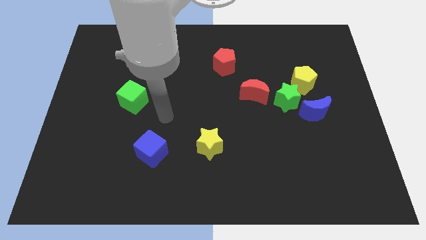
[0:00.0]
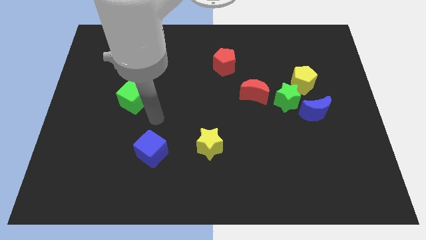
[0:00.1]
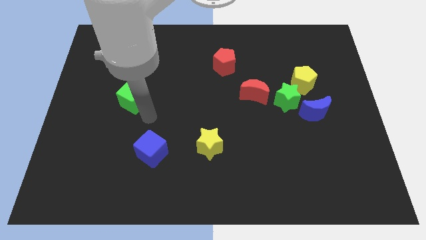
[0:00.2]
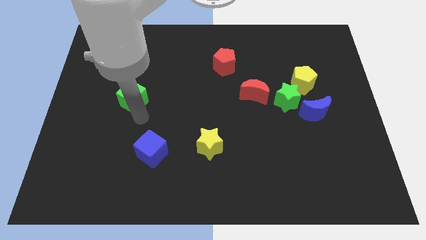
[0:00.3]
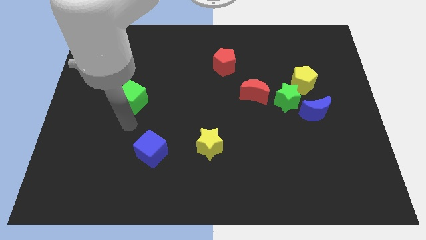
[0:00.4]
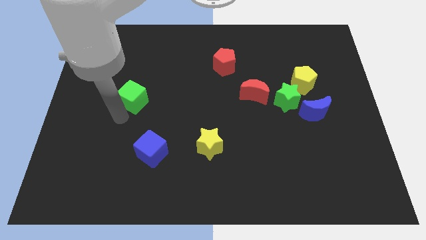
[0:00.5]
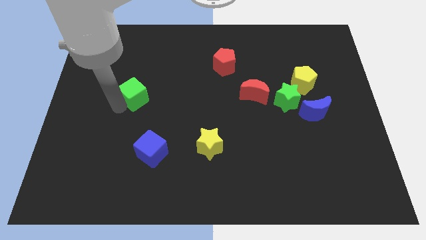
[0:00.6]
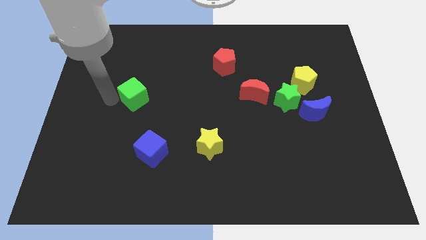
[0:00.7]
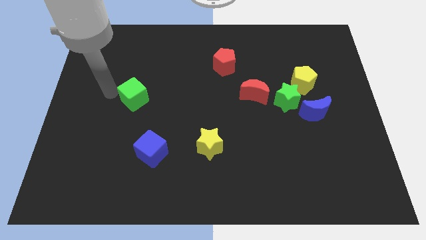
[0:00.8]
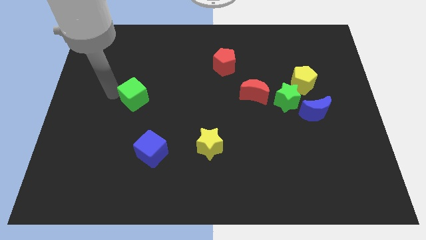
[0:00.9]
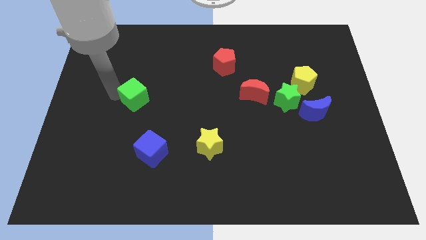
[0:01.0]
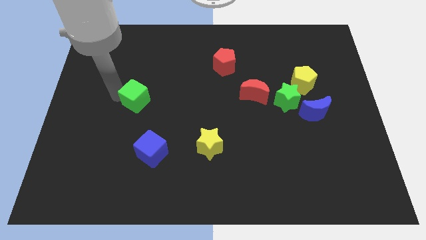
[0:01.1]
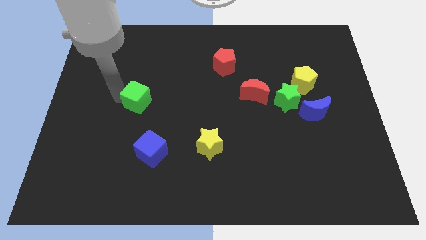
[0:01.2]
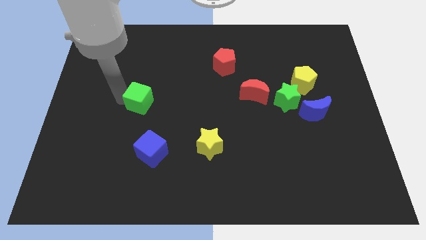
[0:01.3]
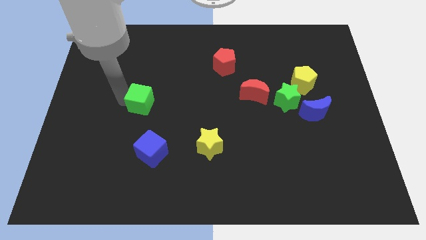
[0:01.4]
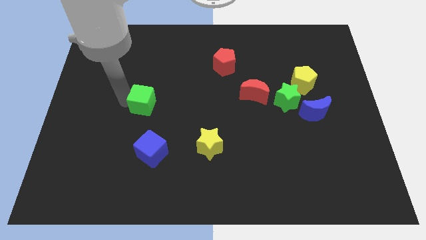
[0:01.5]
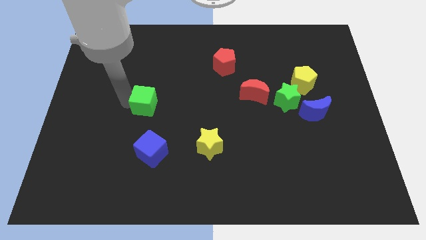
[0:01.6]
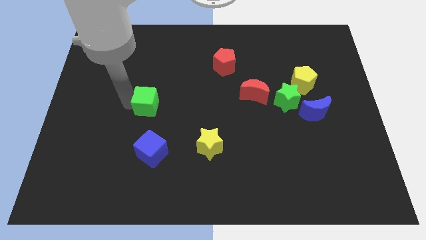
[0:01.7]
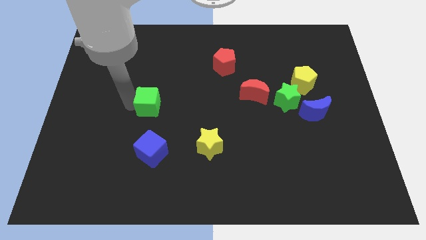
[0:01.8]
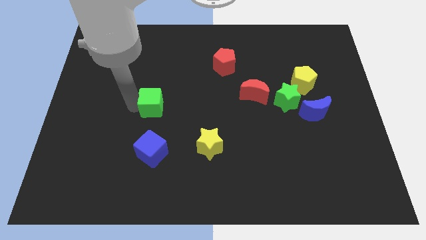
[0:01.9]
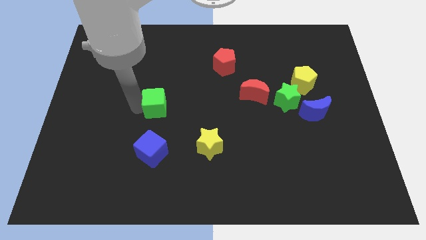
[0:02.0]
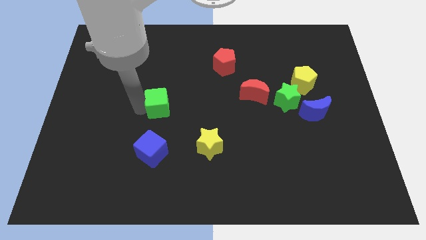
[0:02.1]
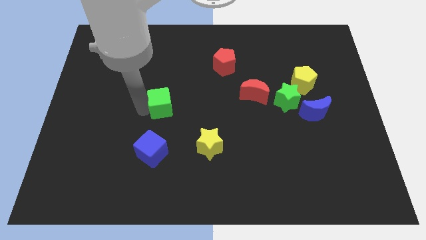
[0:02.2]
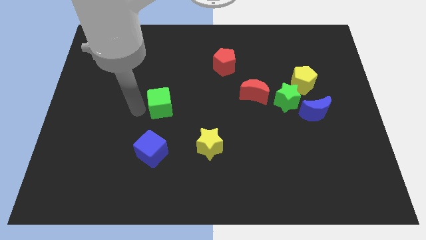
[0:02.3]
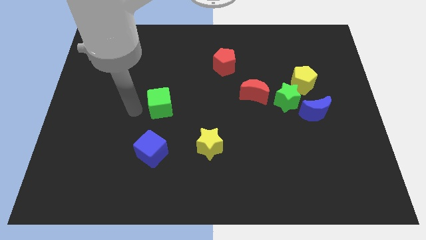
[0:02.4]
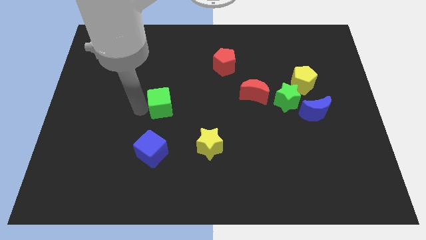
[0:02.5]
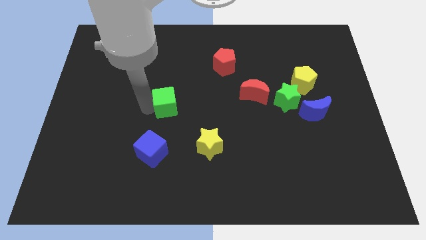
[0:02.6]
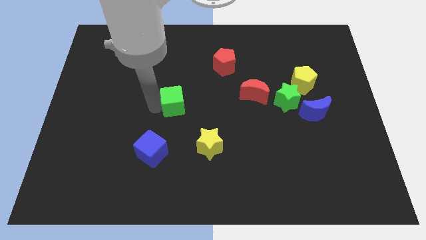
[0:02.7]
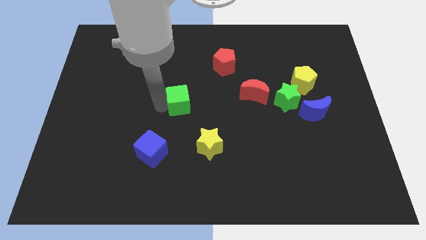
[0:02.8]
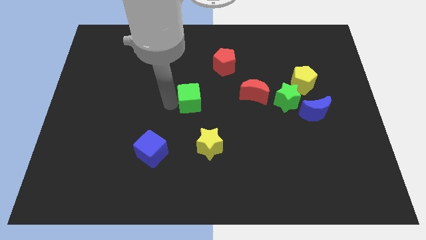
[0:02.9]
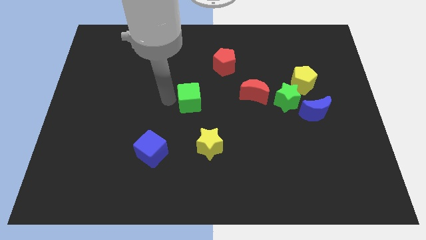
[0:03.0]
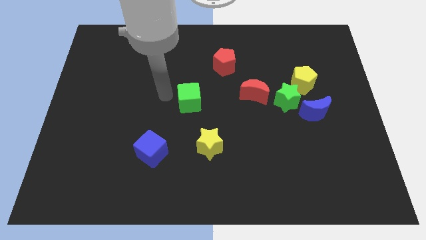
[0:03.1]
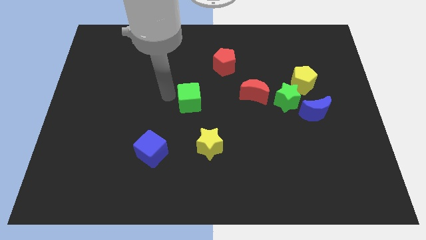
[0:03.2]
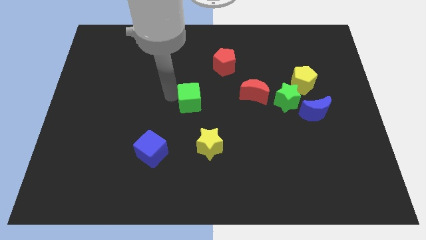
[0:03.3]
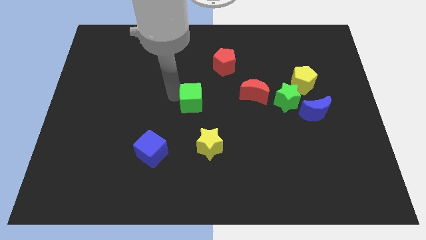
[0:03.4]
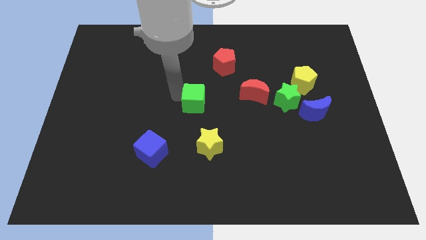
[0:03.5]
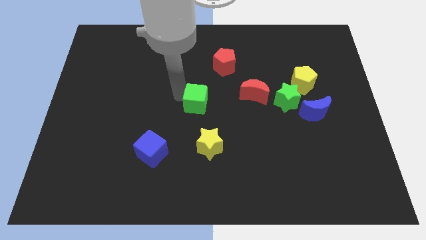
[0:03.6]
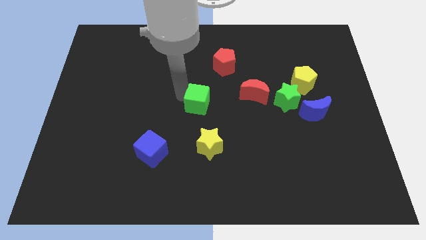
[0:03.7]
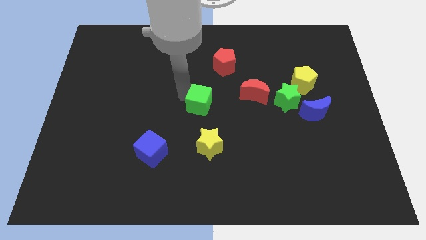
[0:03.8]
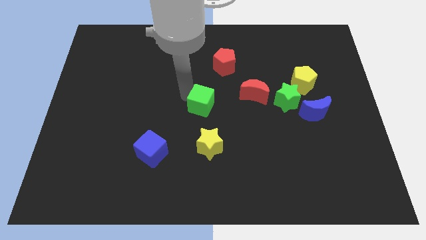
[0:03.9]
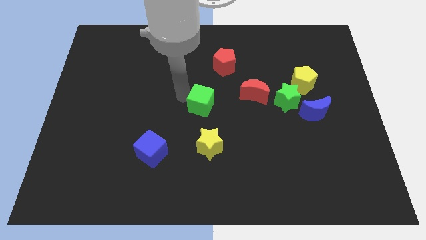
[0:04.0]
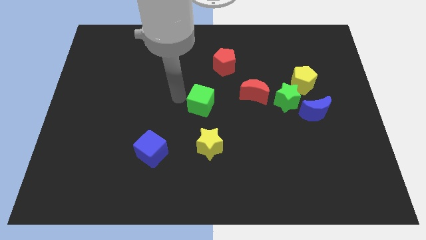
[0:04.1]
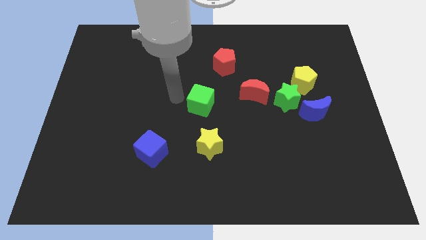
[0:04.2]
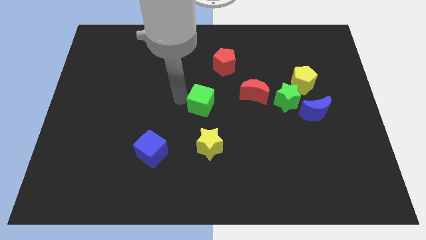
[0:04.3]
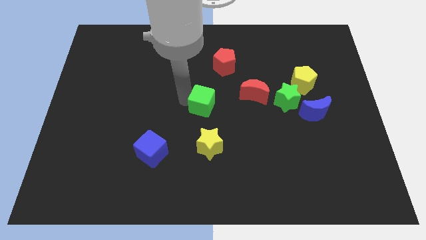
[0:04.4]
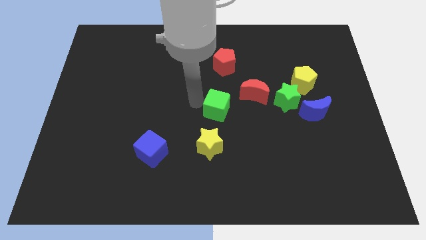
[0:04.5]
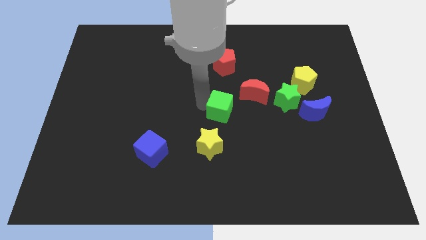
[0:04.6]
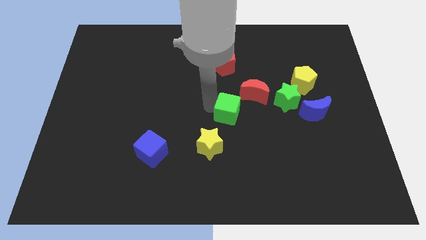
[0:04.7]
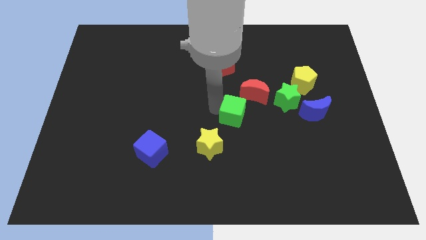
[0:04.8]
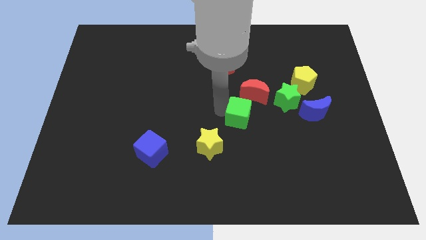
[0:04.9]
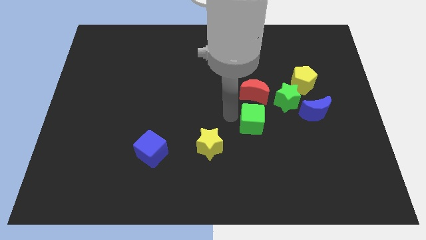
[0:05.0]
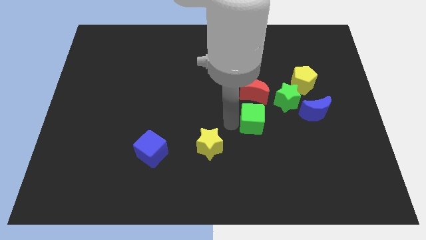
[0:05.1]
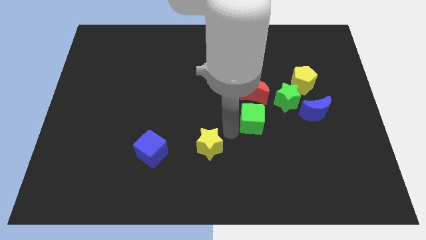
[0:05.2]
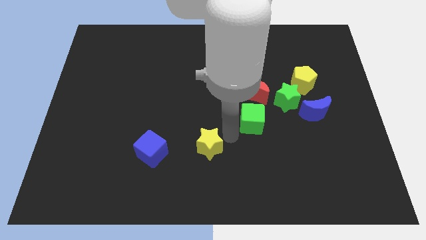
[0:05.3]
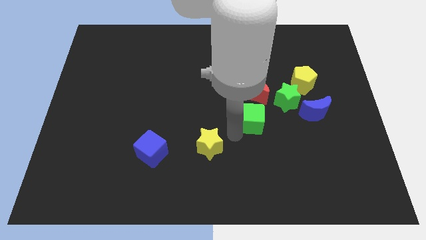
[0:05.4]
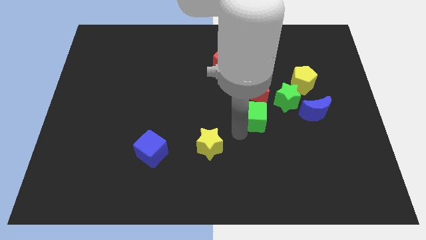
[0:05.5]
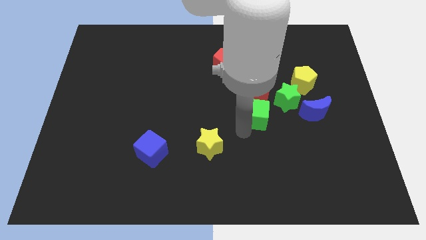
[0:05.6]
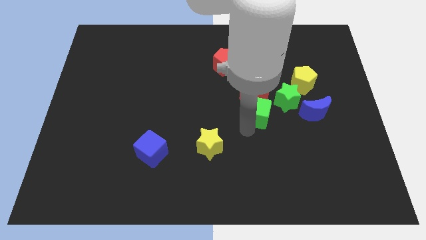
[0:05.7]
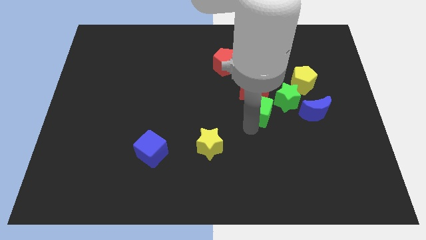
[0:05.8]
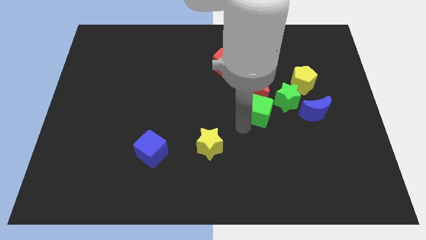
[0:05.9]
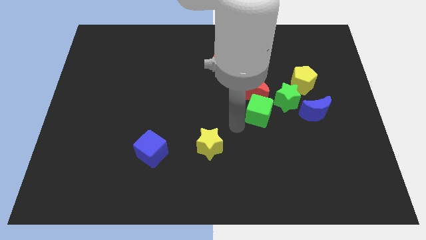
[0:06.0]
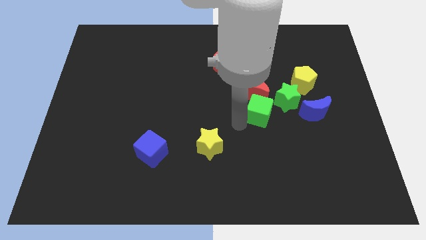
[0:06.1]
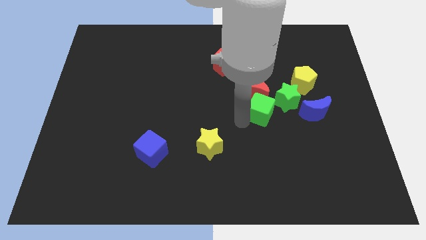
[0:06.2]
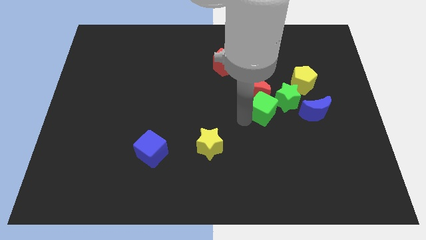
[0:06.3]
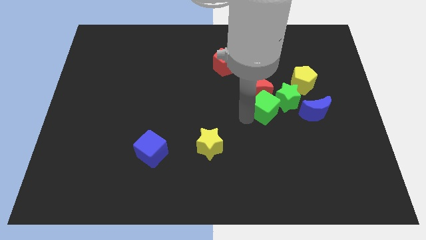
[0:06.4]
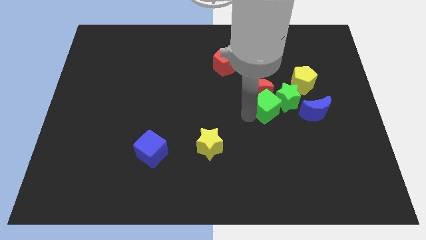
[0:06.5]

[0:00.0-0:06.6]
slide the green cube next to the green star

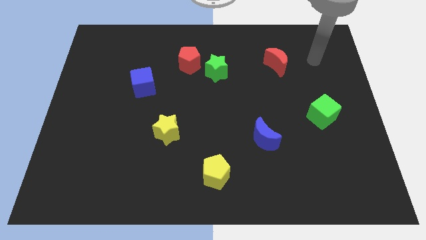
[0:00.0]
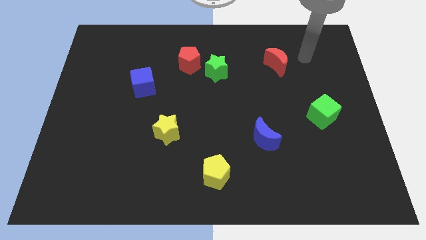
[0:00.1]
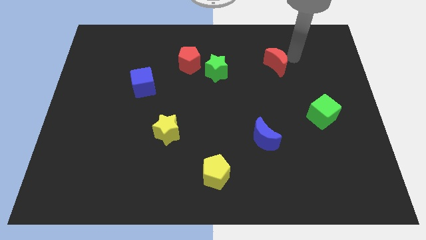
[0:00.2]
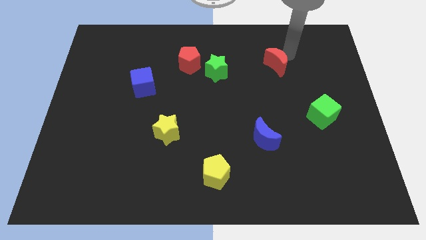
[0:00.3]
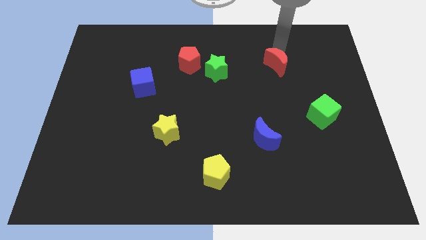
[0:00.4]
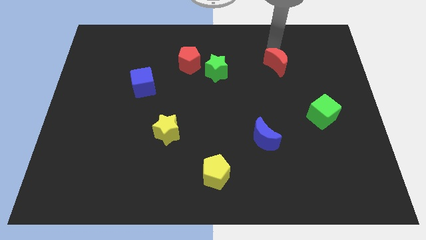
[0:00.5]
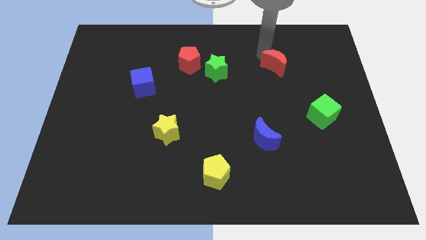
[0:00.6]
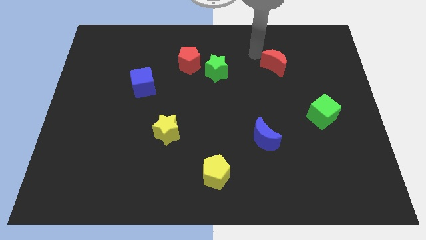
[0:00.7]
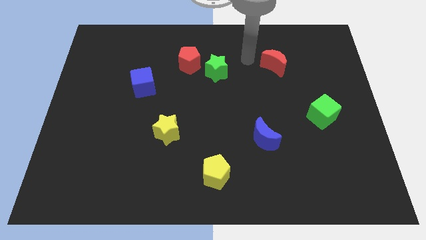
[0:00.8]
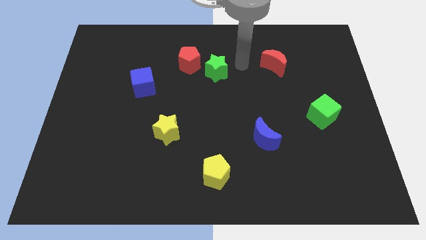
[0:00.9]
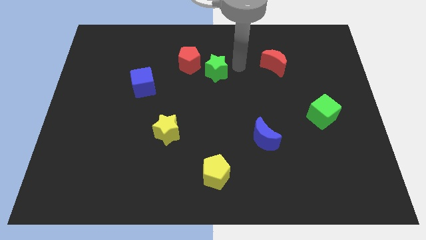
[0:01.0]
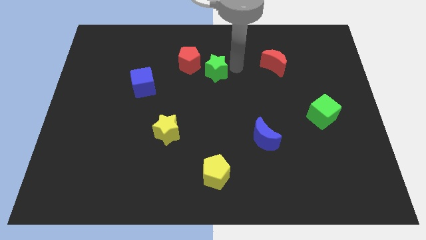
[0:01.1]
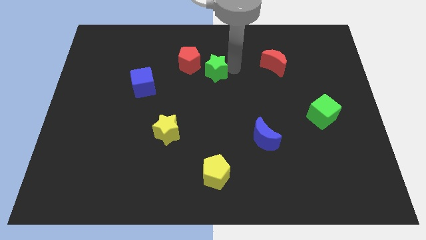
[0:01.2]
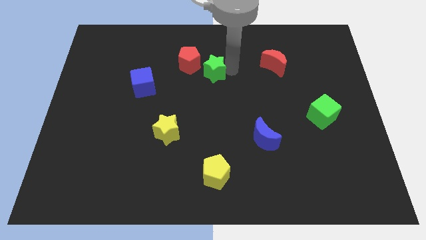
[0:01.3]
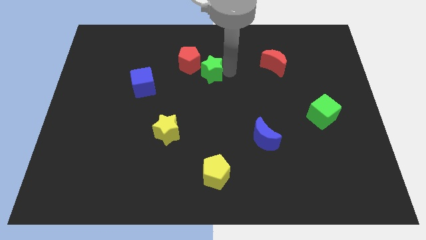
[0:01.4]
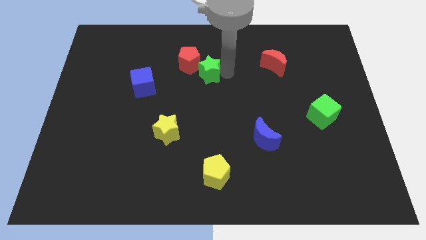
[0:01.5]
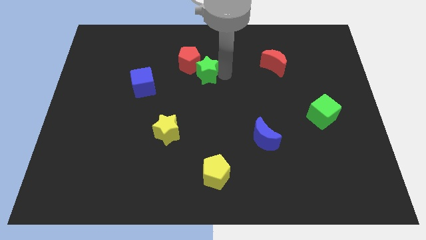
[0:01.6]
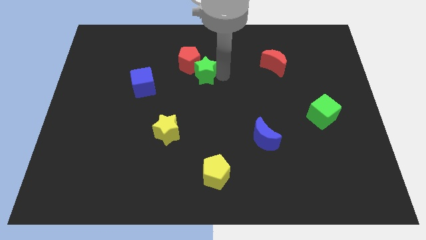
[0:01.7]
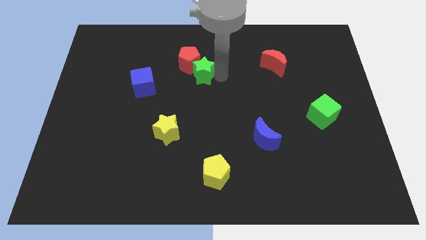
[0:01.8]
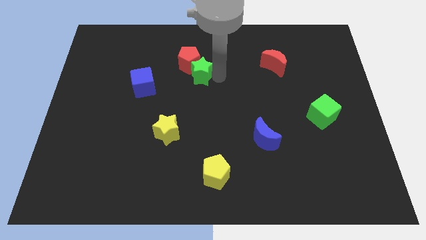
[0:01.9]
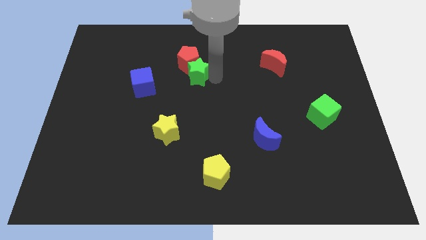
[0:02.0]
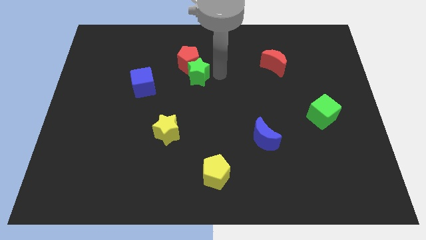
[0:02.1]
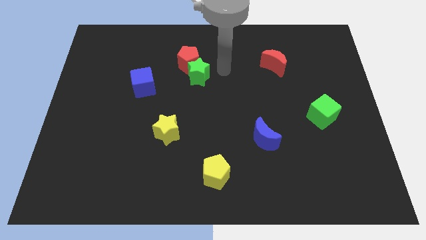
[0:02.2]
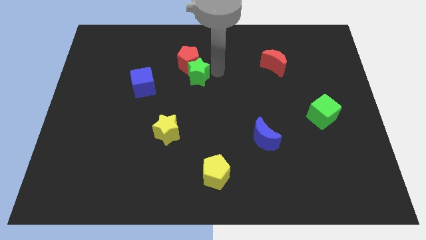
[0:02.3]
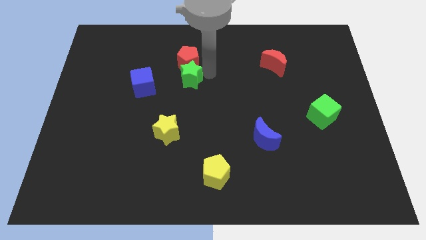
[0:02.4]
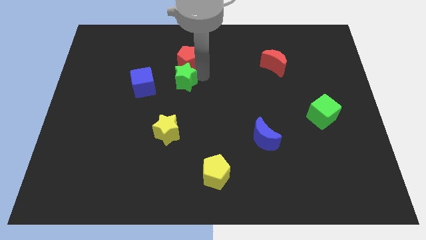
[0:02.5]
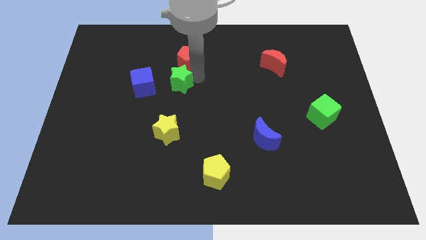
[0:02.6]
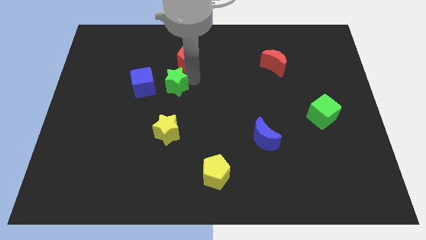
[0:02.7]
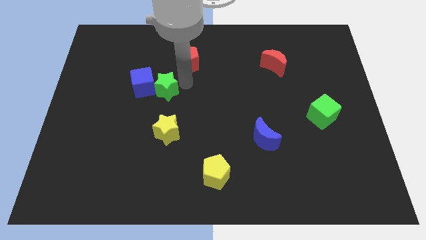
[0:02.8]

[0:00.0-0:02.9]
slide the green star towards the blue cube
